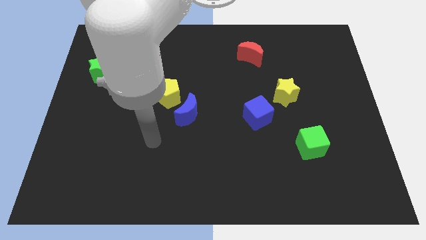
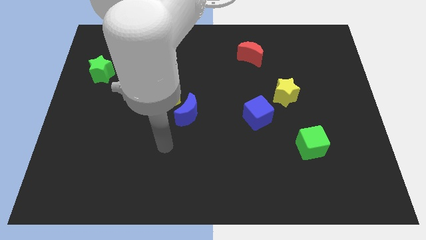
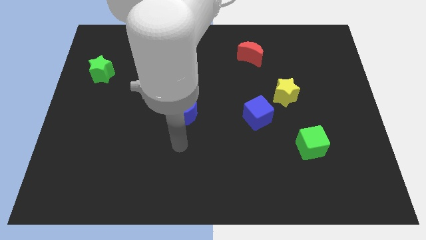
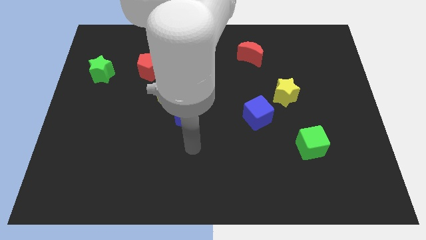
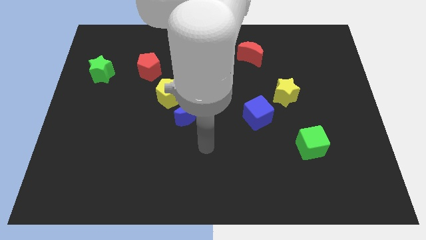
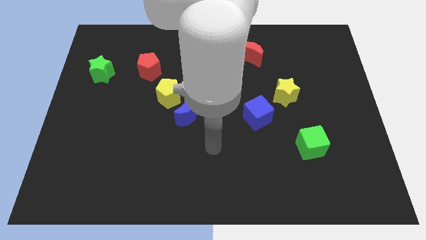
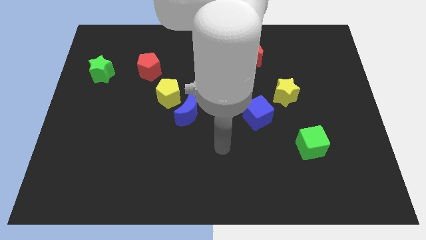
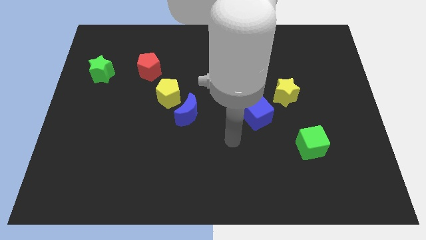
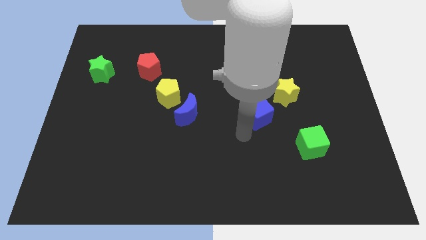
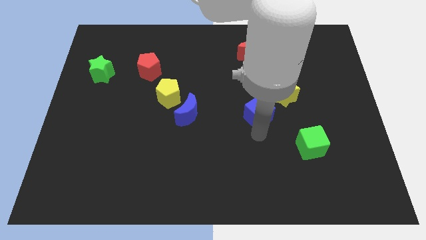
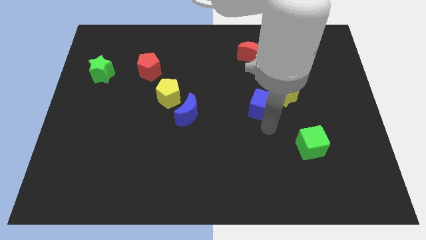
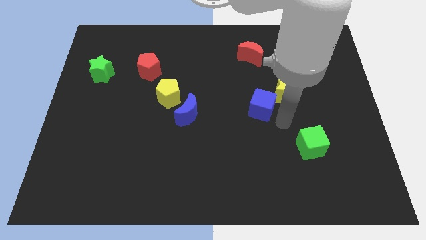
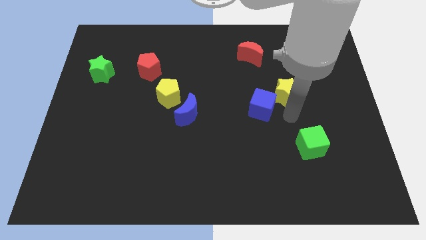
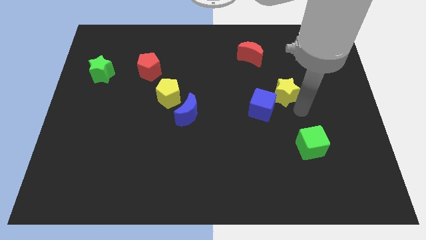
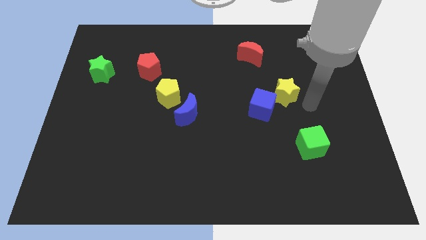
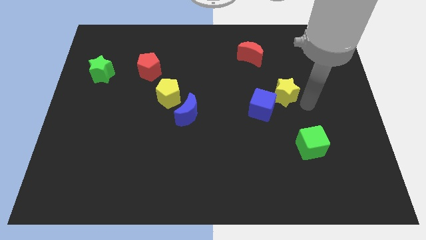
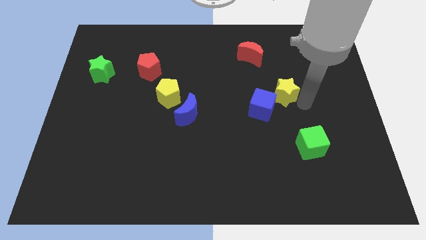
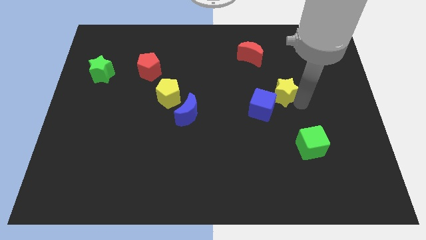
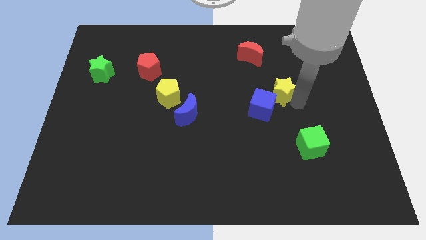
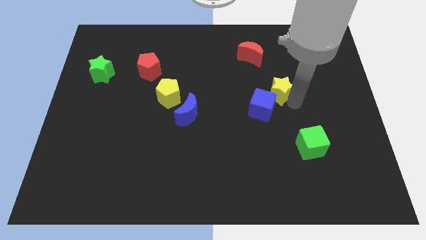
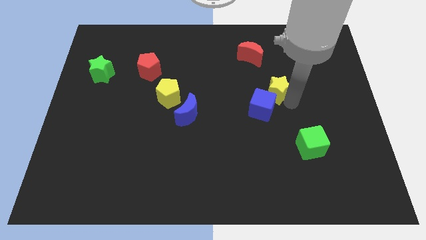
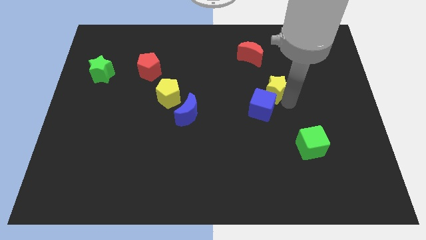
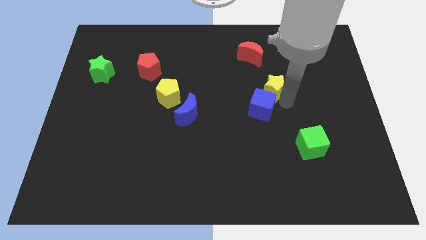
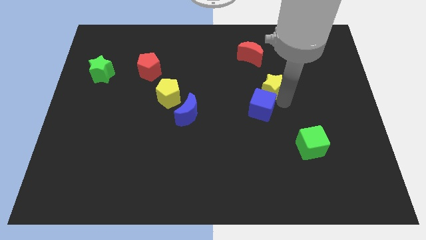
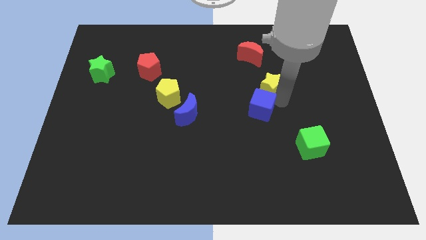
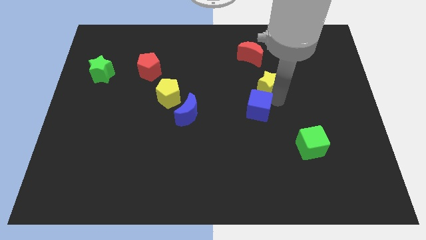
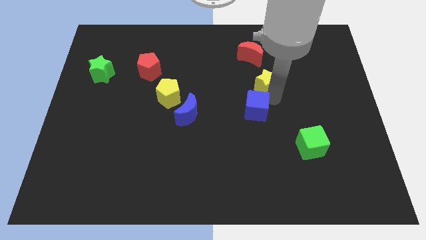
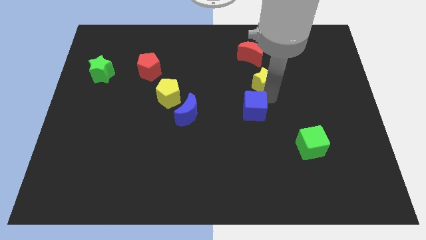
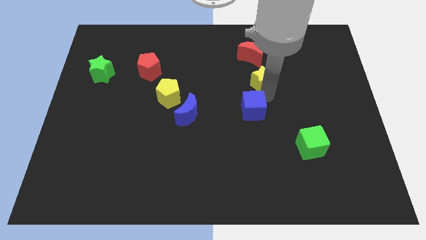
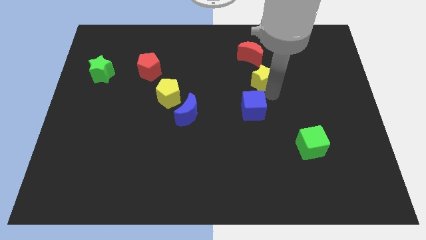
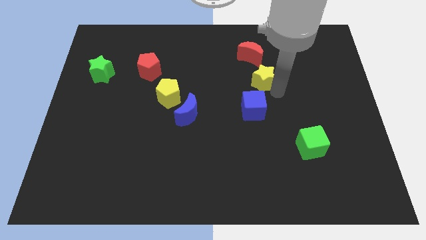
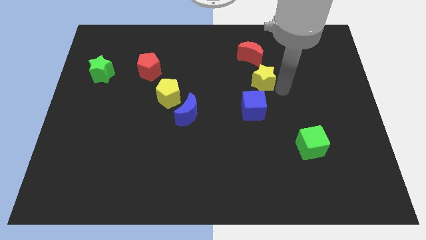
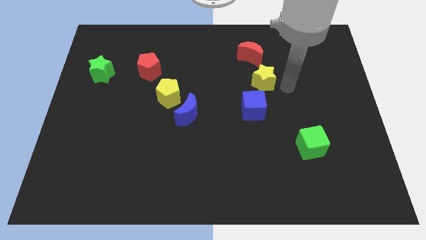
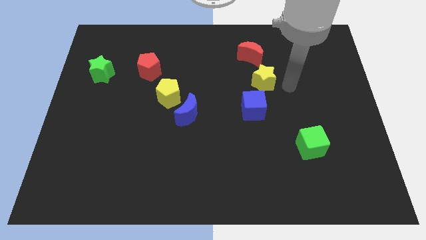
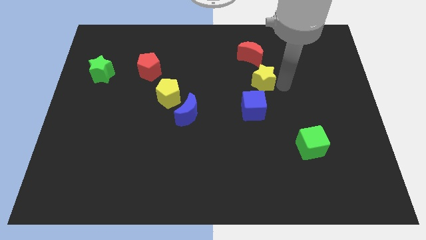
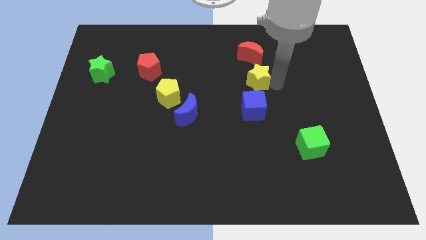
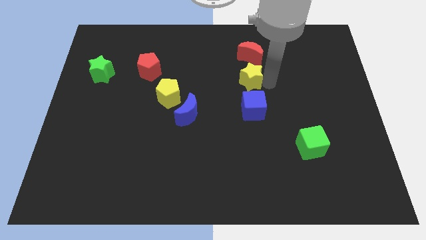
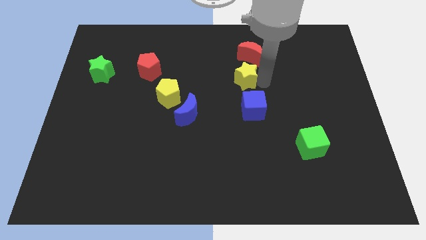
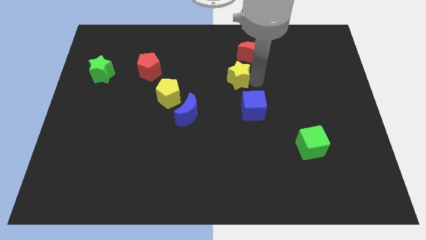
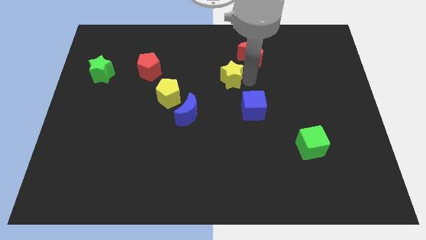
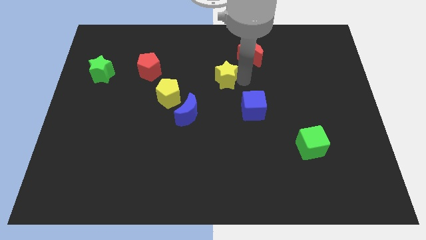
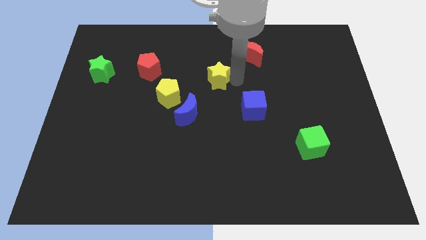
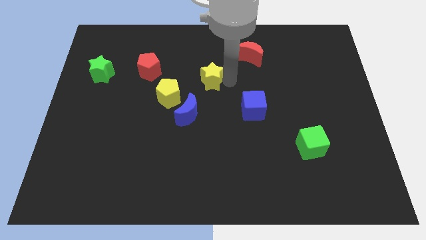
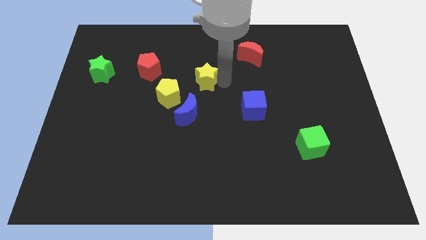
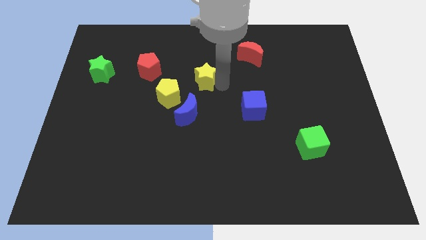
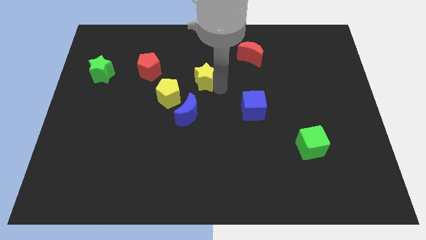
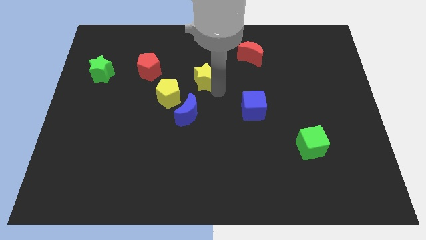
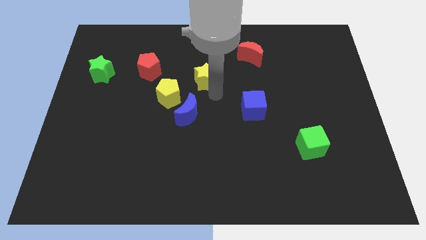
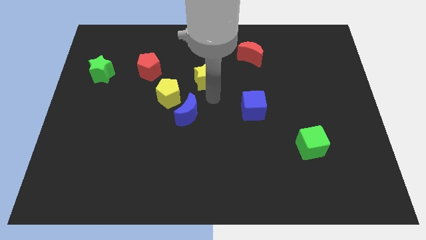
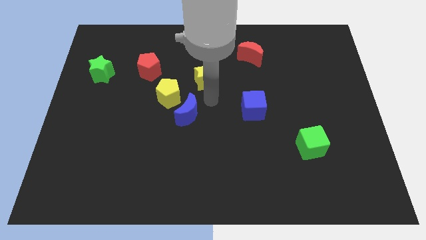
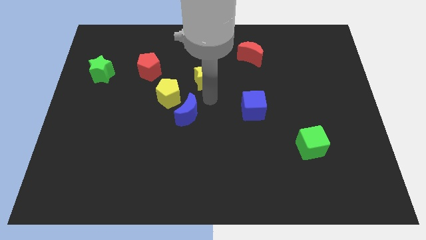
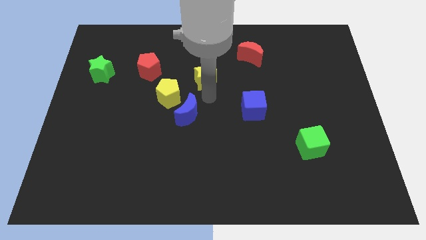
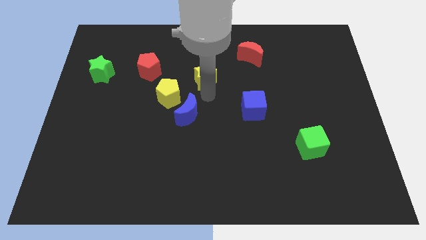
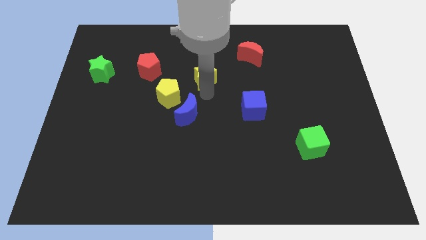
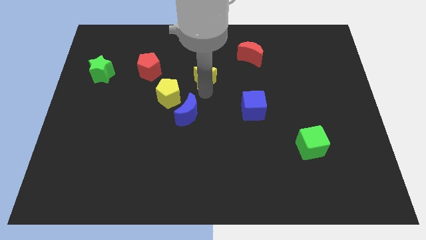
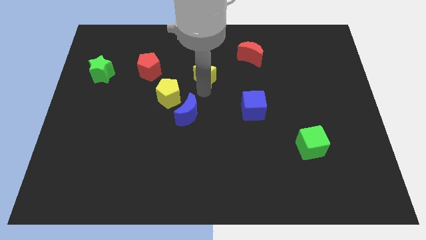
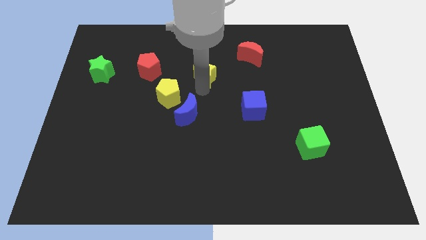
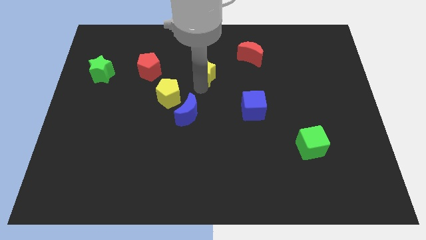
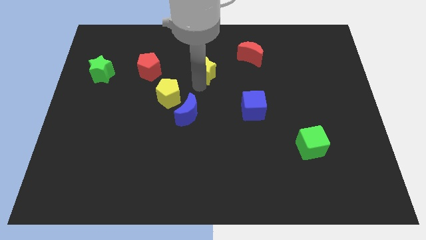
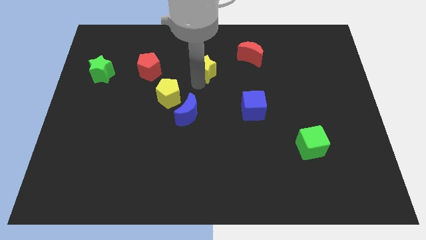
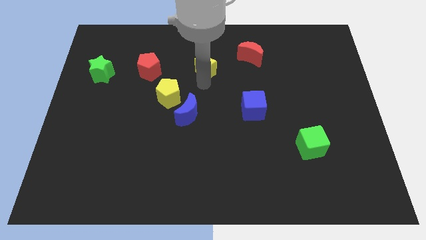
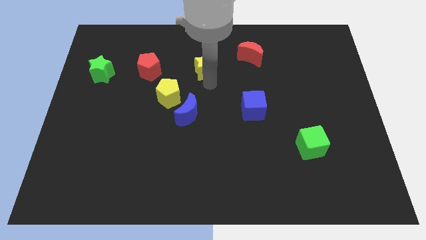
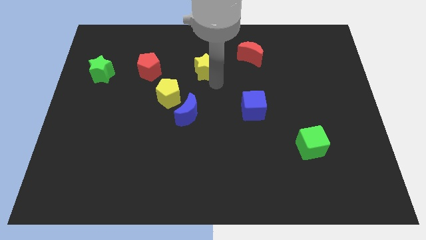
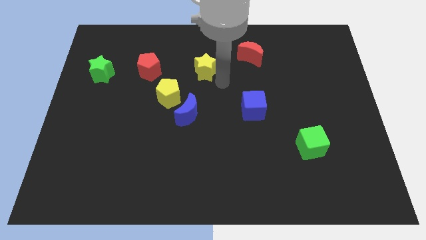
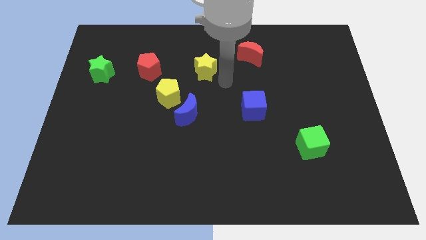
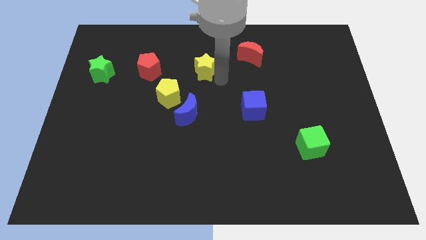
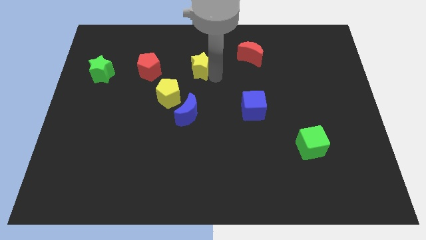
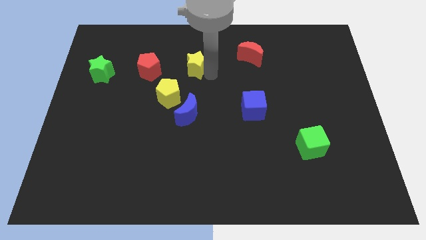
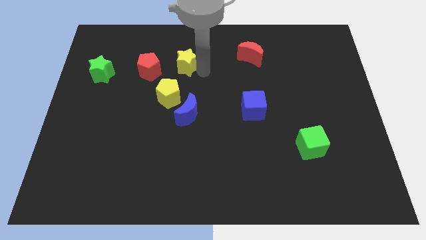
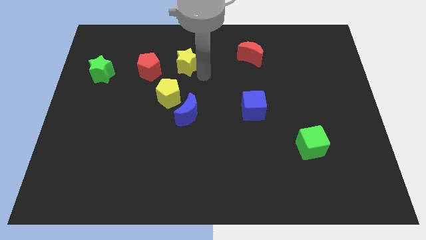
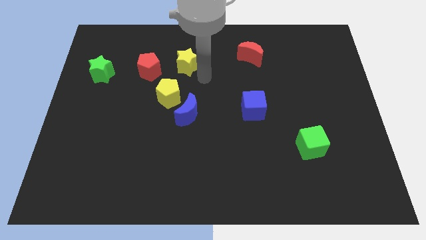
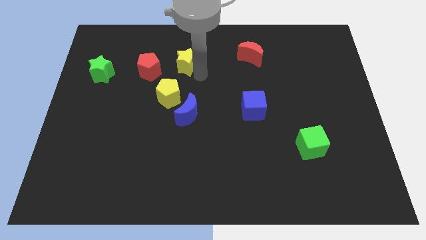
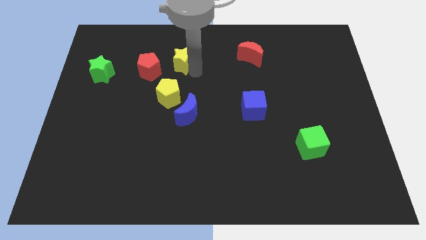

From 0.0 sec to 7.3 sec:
push the yellow star to the top right side of the red pentagon

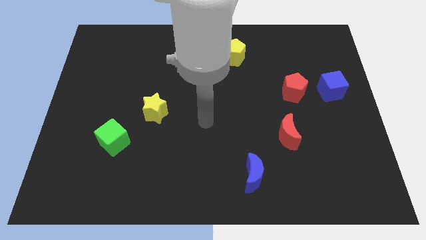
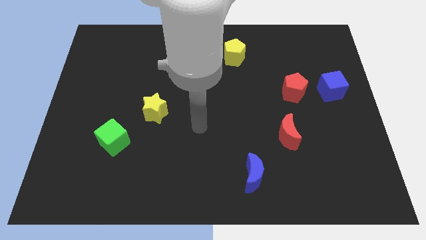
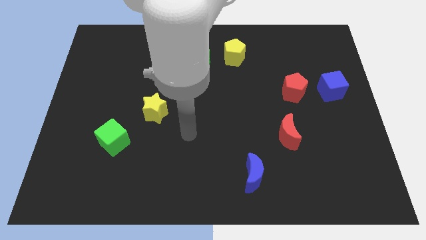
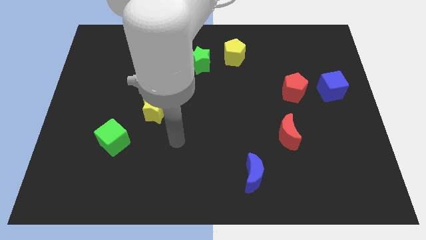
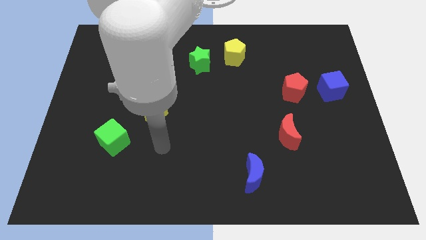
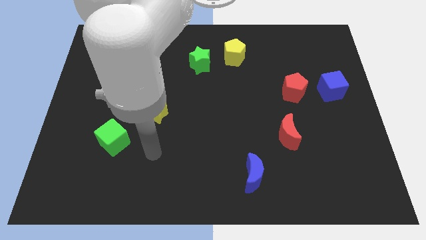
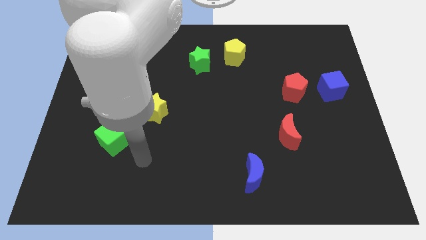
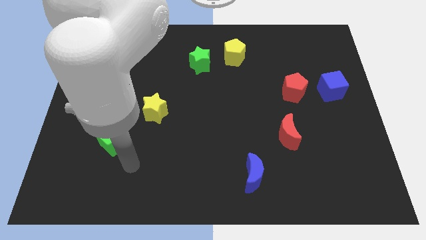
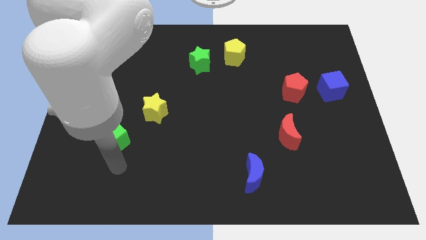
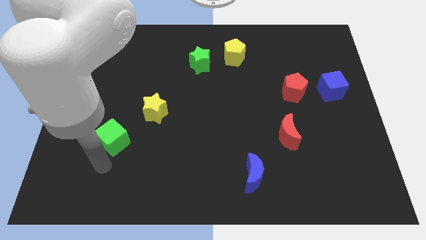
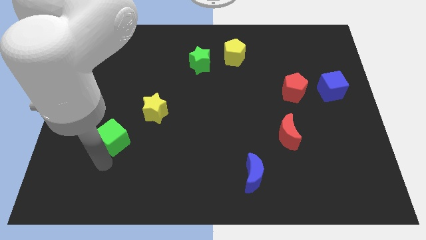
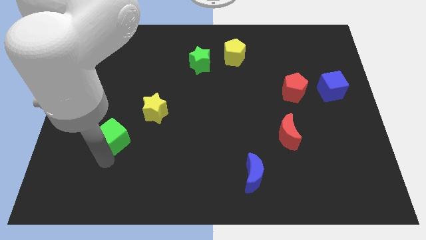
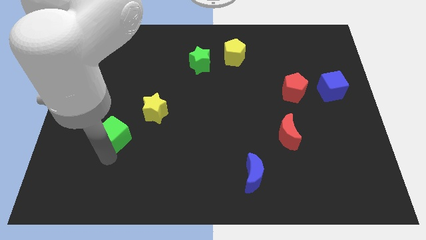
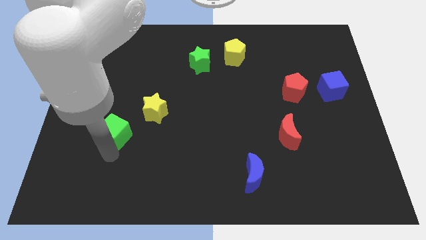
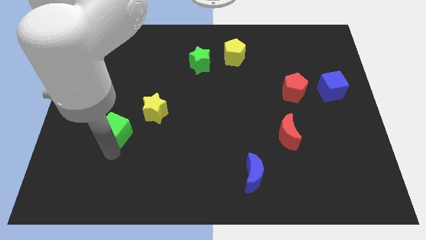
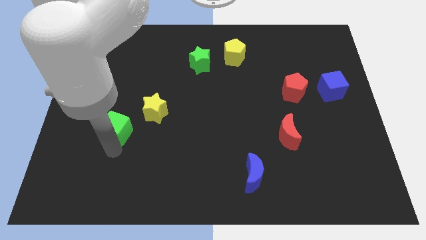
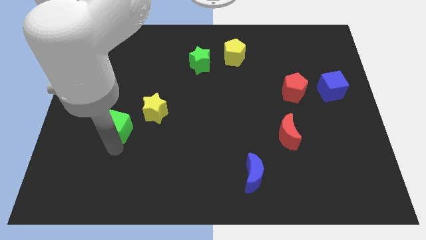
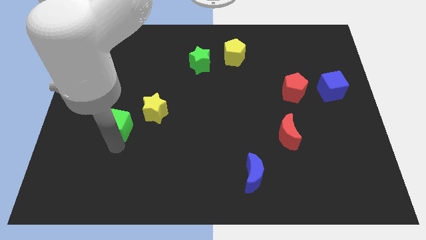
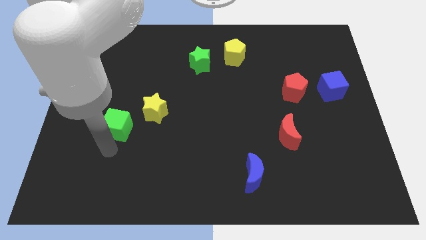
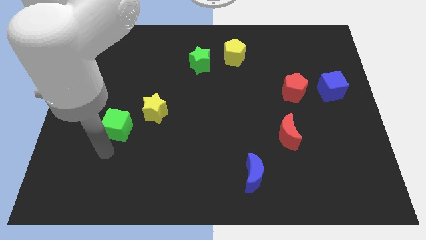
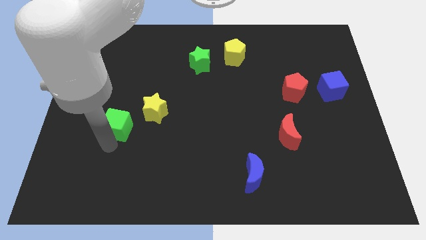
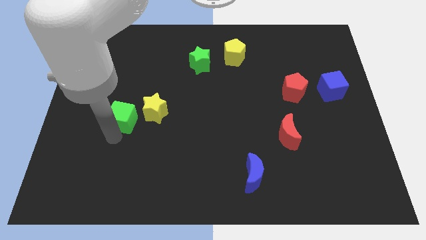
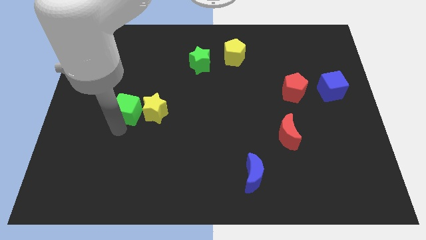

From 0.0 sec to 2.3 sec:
push the green cube diagonally up and to the left of the yellow star
